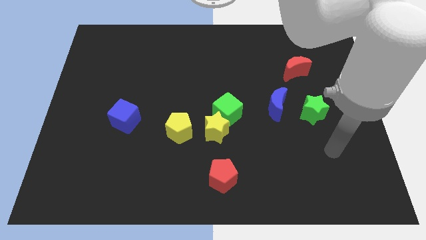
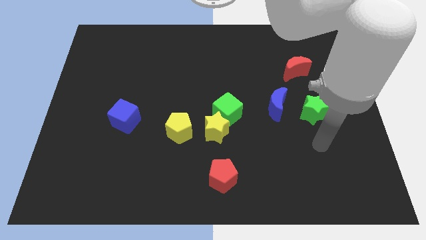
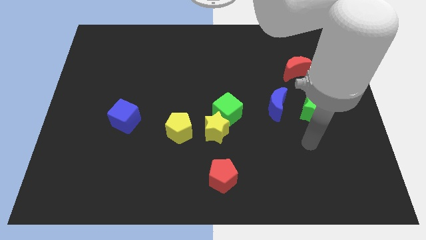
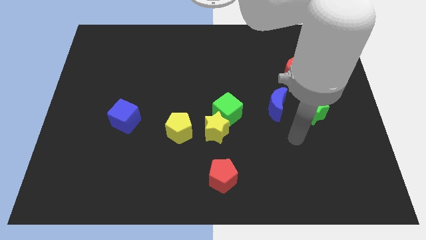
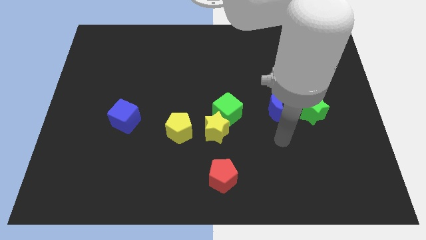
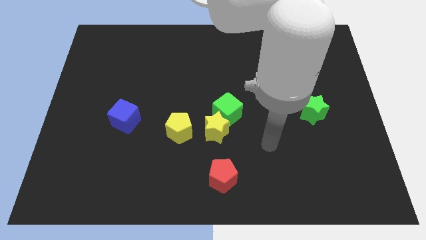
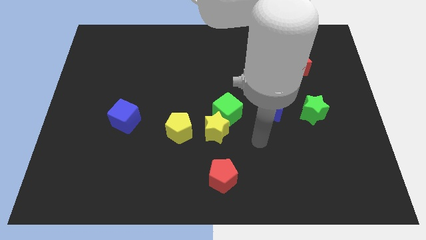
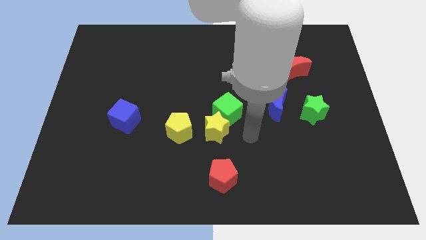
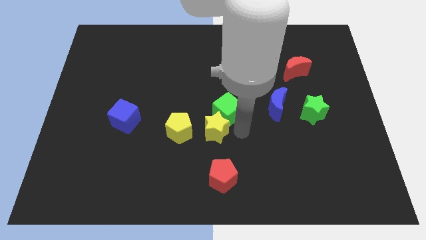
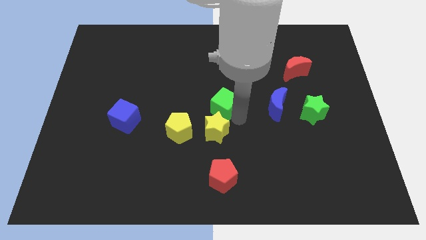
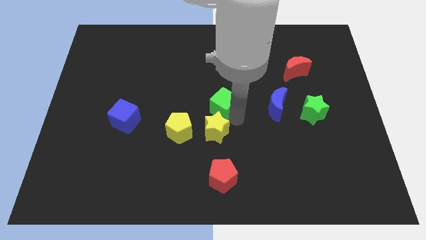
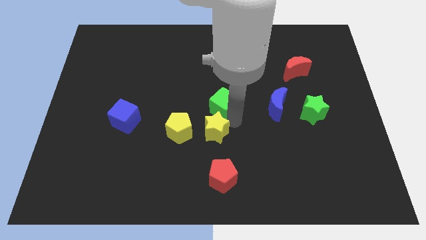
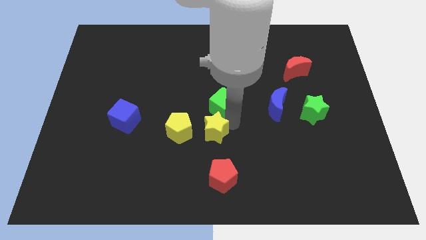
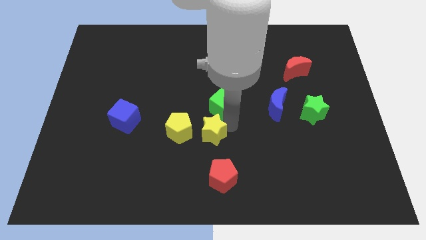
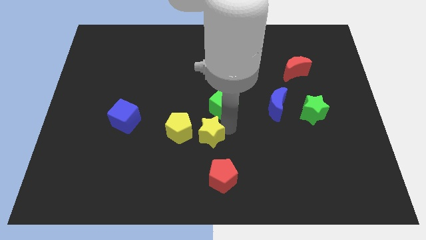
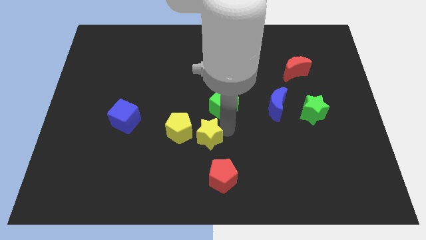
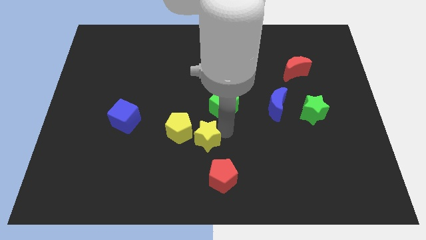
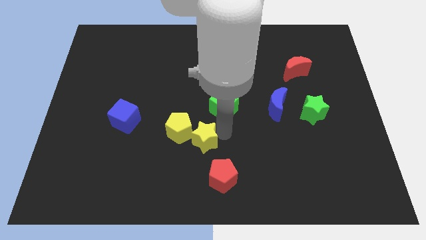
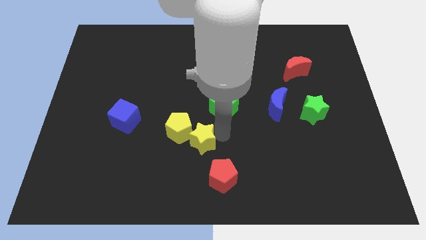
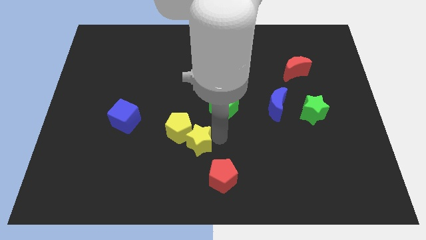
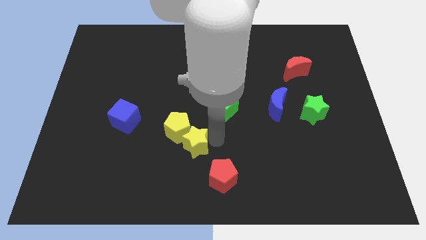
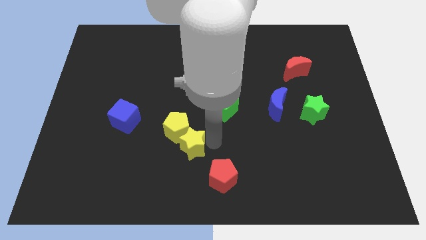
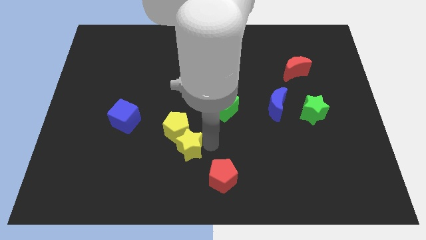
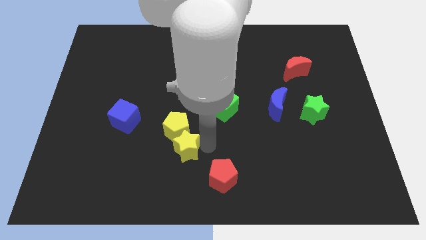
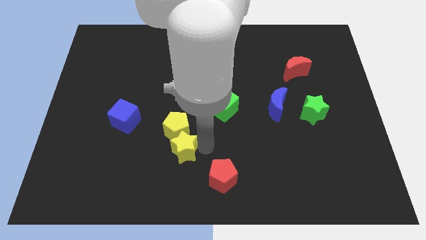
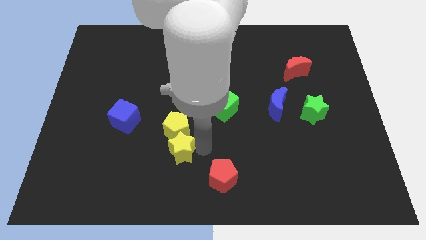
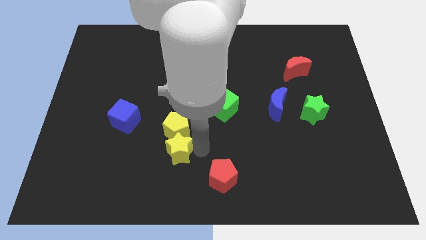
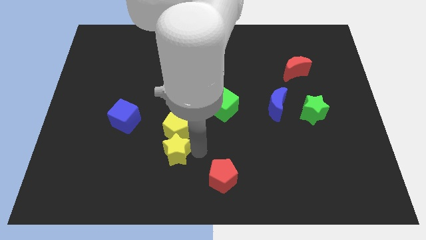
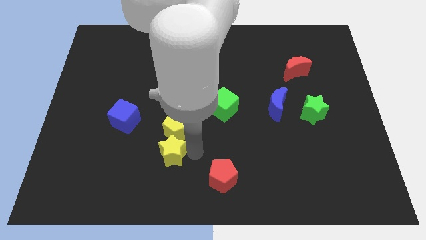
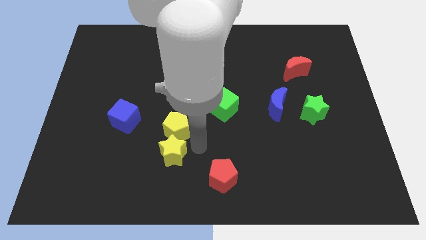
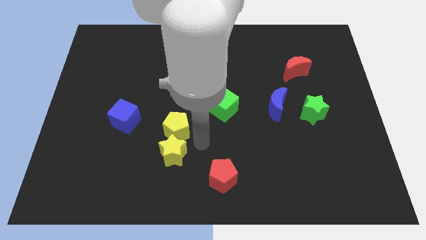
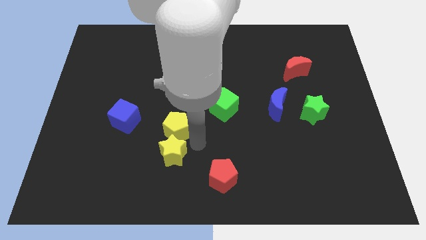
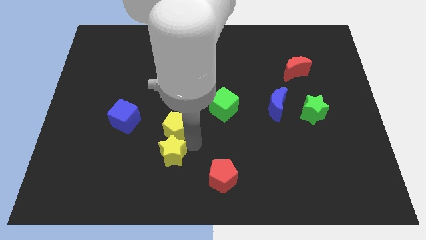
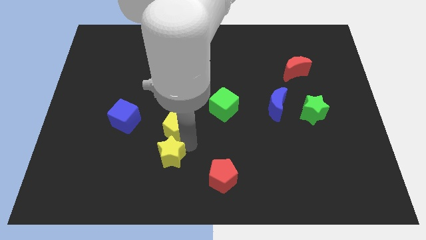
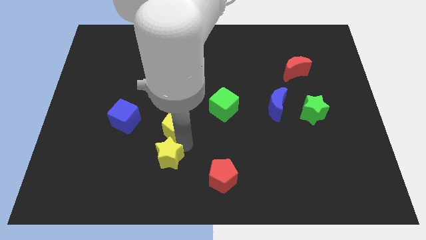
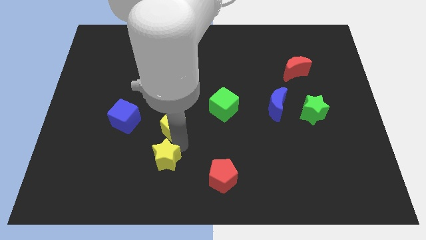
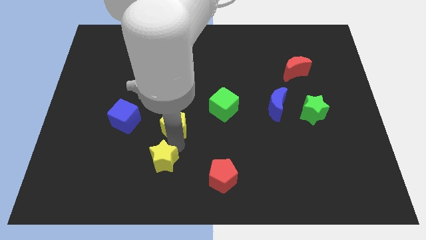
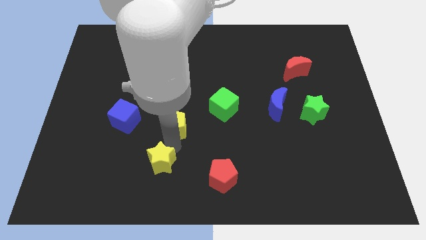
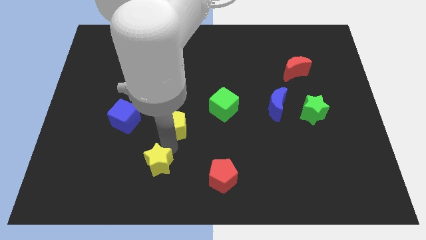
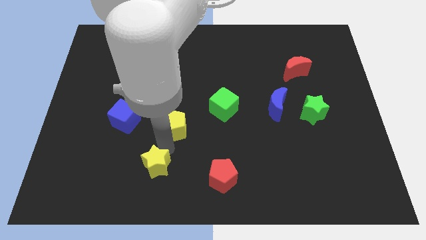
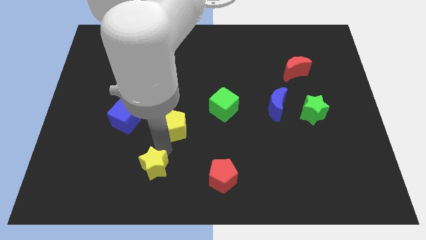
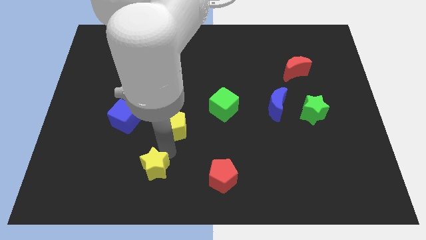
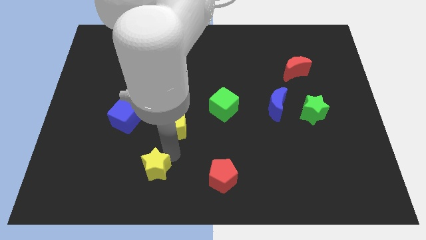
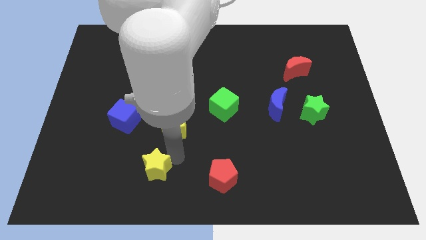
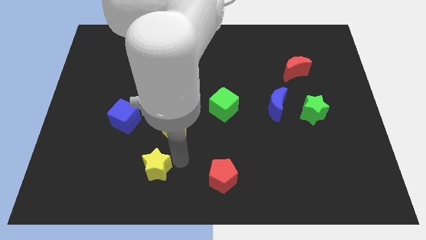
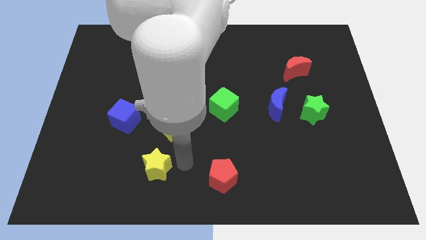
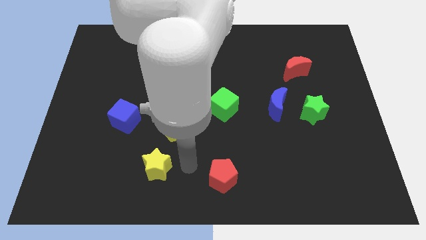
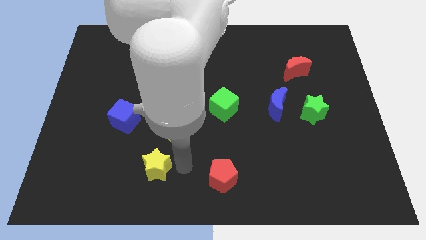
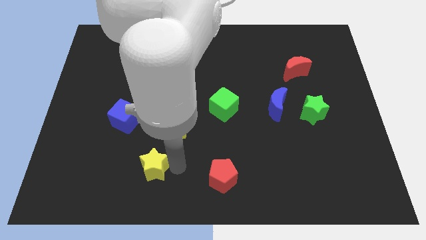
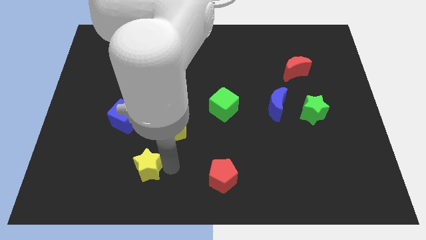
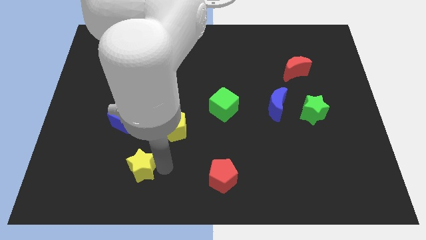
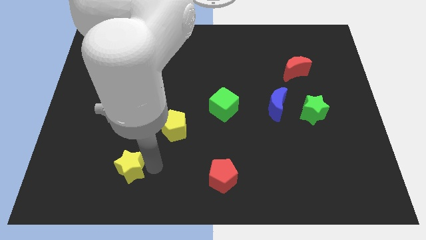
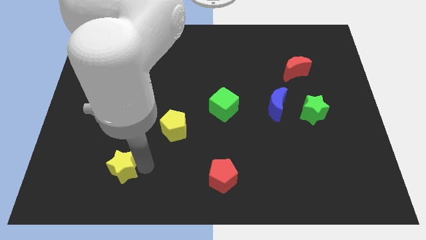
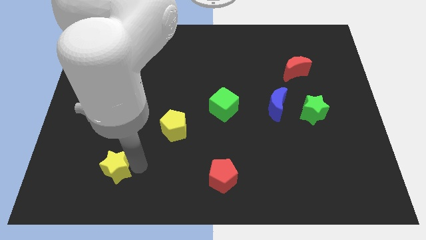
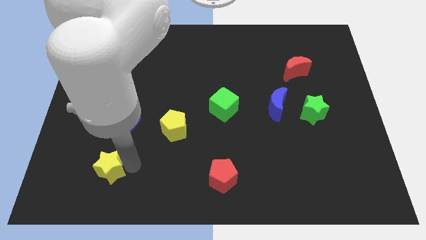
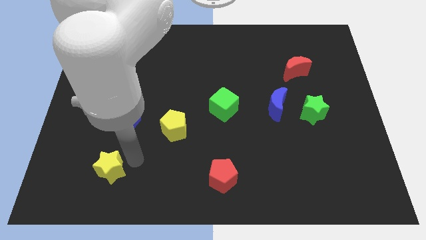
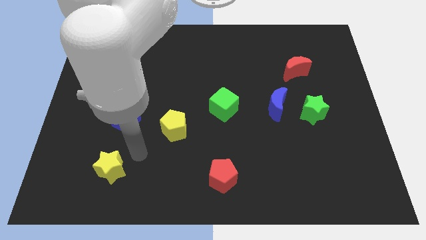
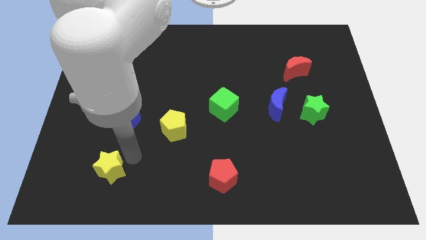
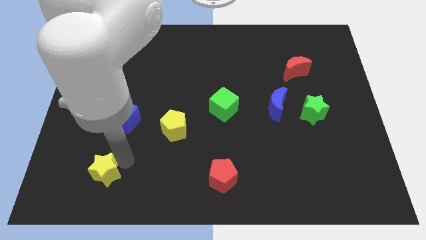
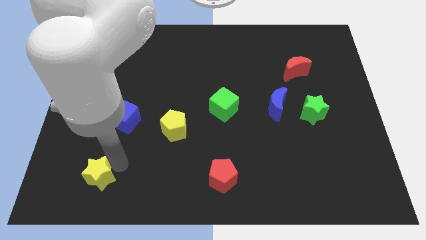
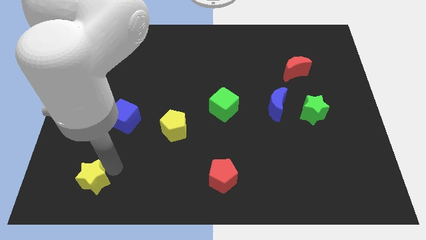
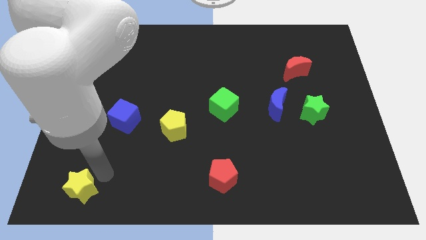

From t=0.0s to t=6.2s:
push the yellow star to the bottom left corner

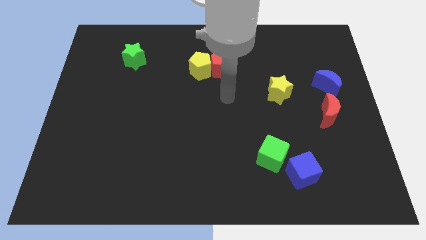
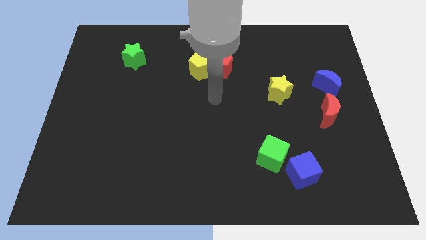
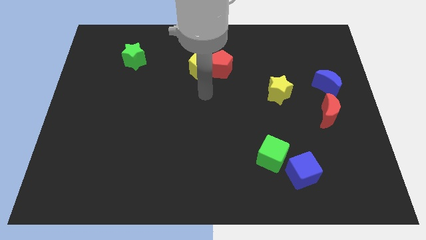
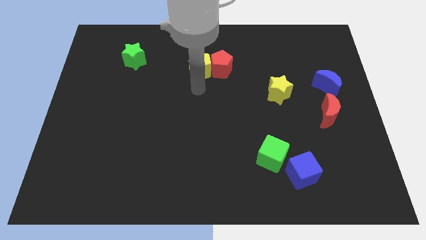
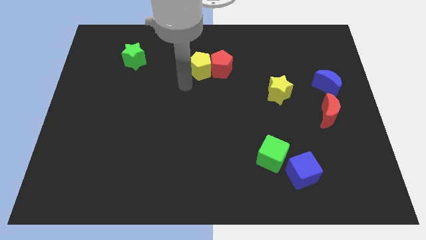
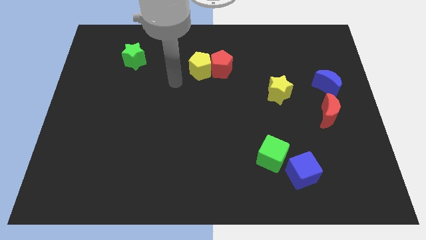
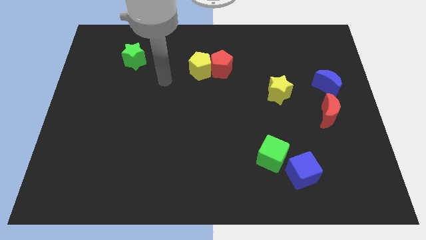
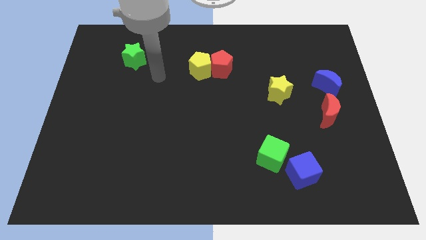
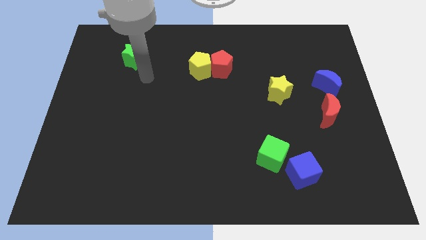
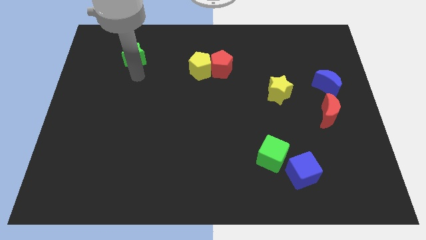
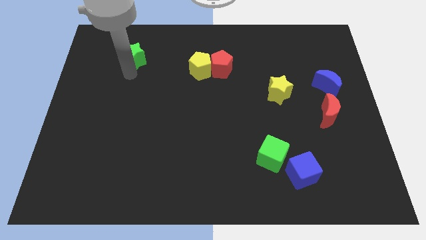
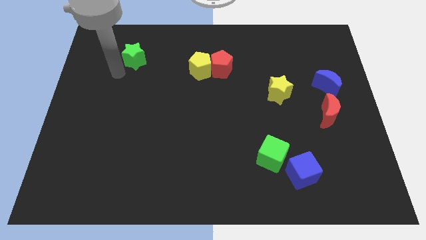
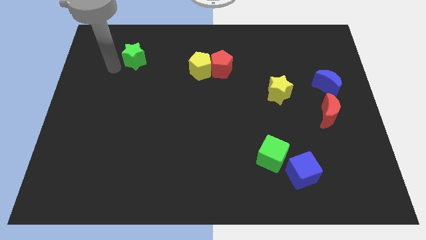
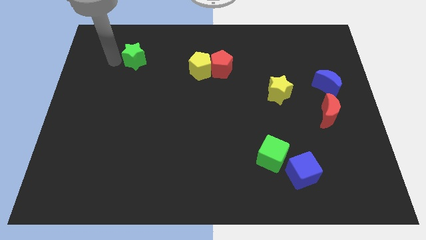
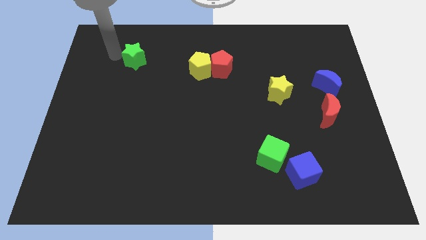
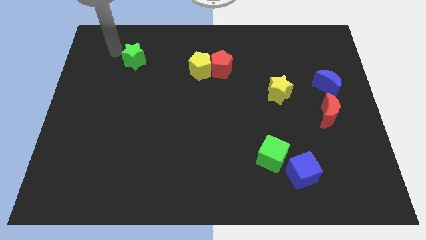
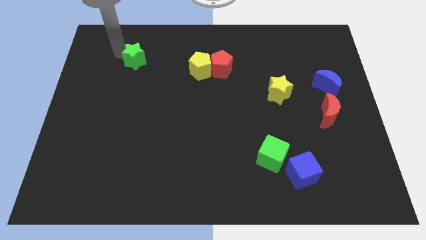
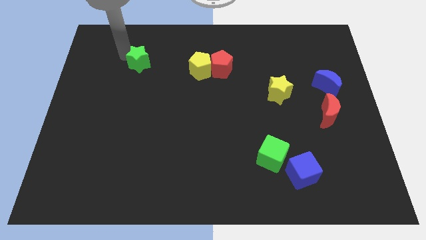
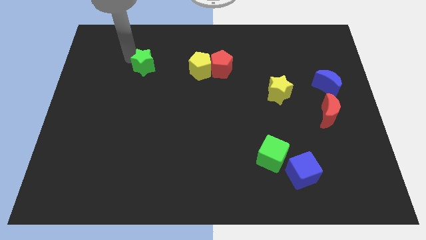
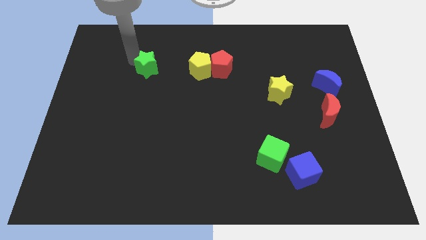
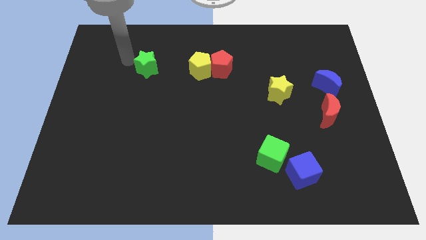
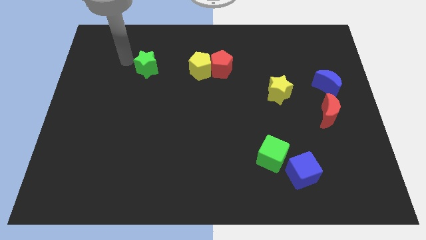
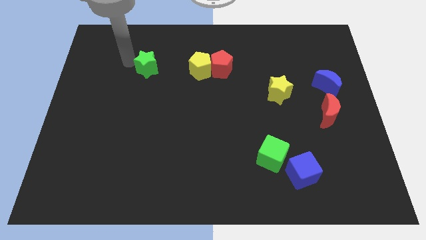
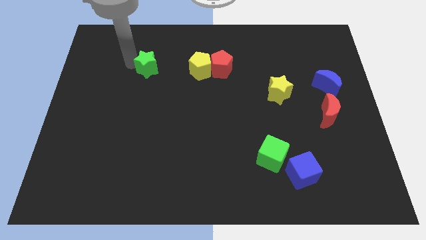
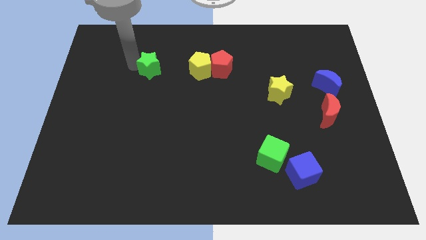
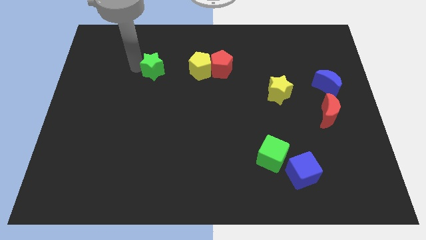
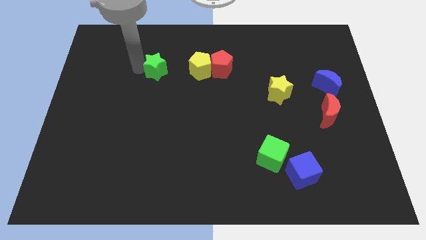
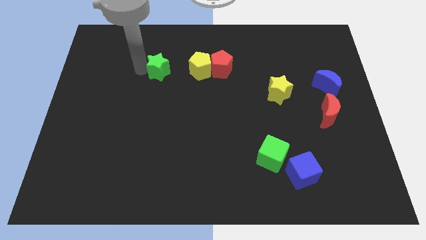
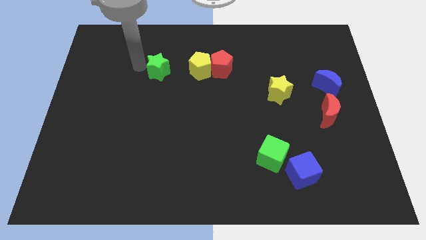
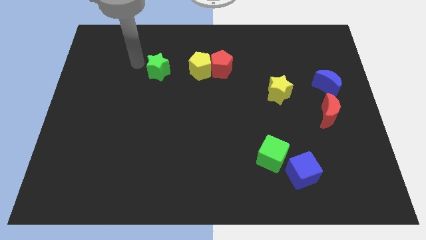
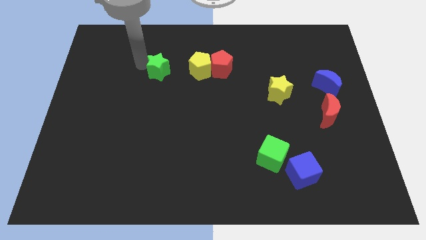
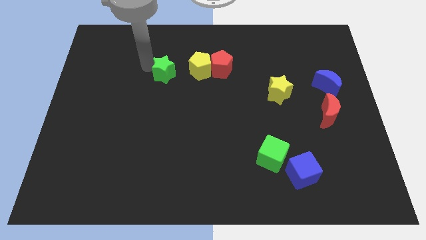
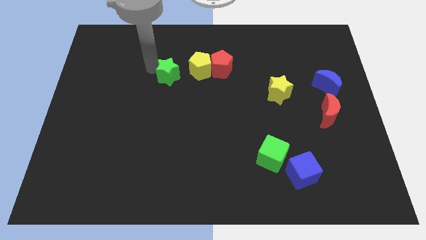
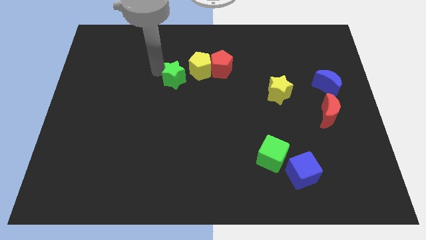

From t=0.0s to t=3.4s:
slide the green star to the middle
